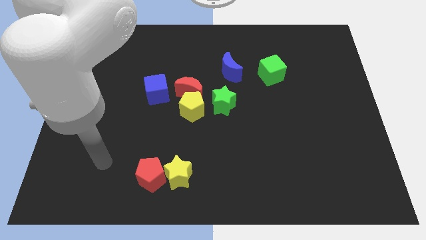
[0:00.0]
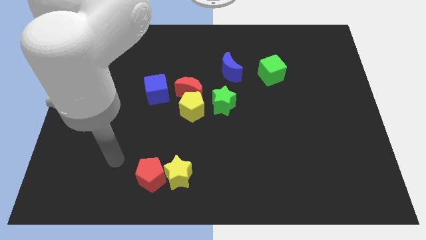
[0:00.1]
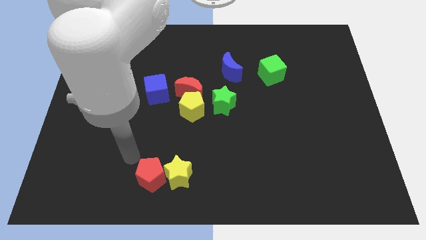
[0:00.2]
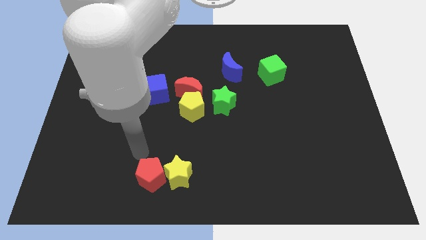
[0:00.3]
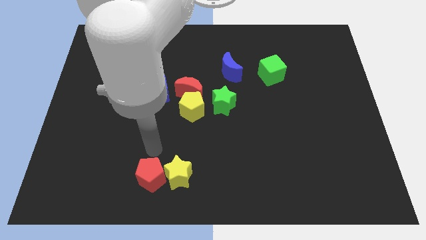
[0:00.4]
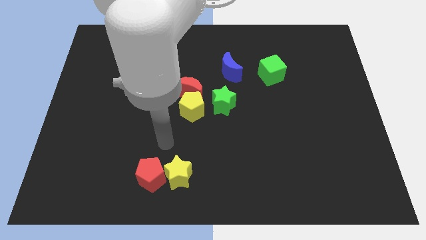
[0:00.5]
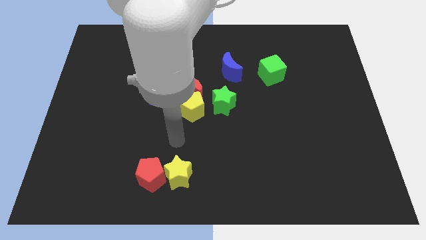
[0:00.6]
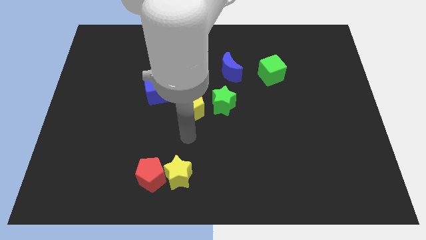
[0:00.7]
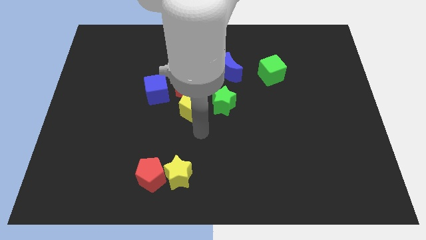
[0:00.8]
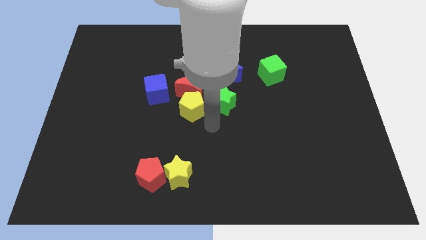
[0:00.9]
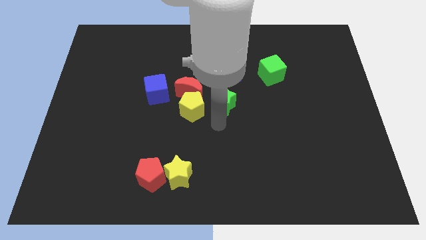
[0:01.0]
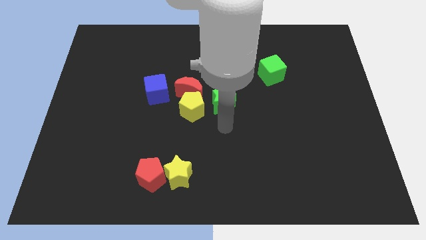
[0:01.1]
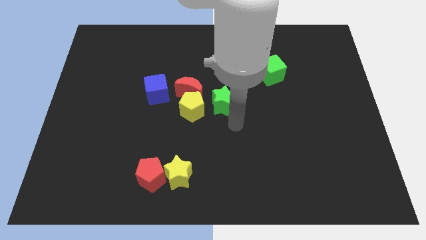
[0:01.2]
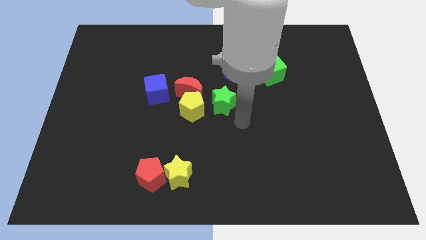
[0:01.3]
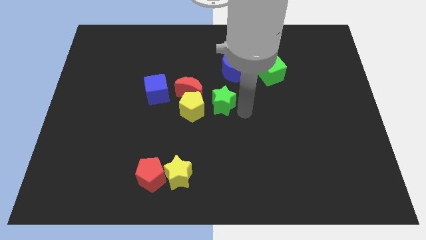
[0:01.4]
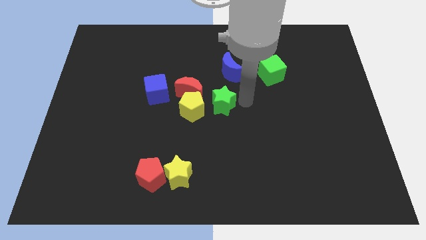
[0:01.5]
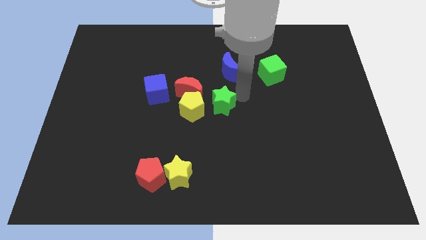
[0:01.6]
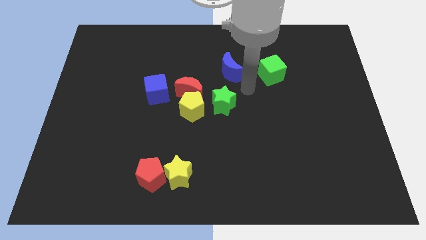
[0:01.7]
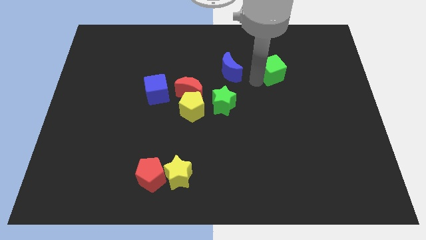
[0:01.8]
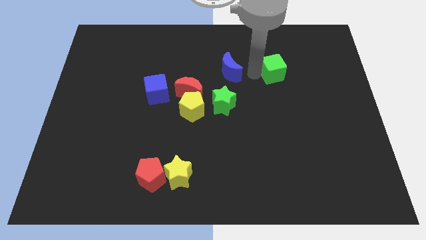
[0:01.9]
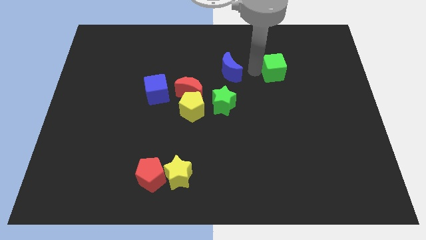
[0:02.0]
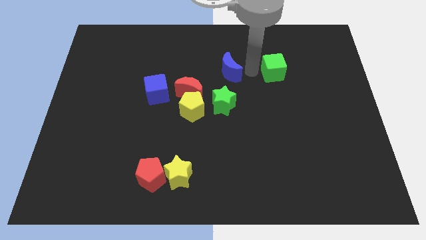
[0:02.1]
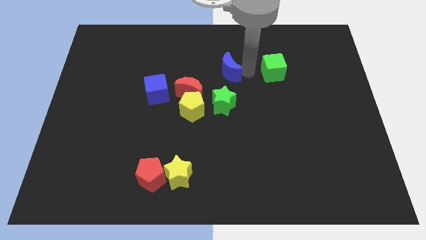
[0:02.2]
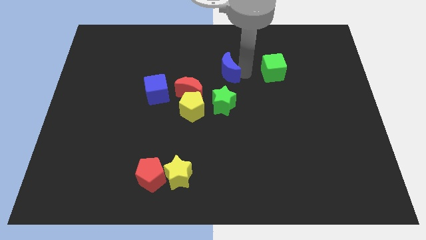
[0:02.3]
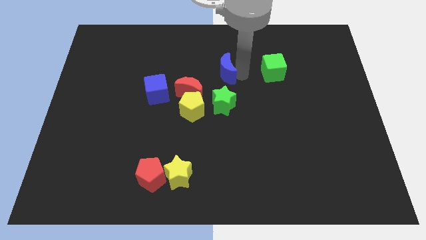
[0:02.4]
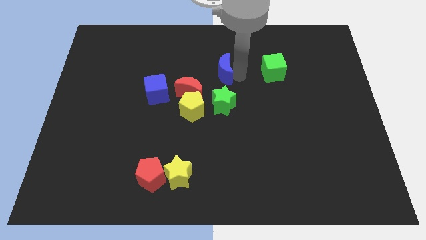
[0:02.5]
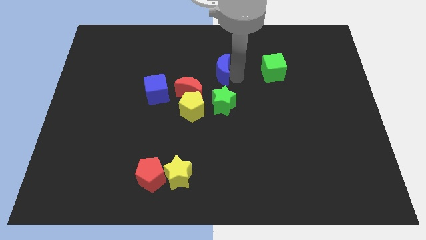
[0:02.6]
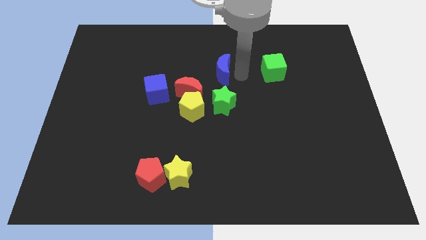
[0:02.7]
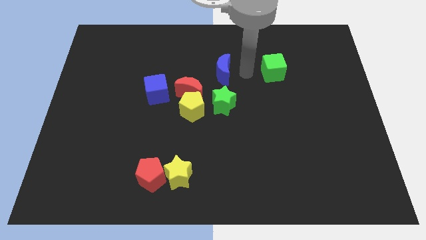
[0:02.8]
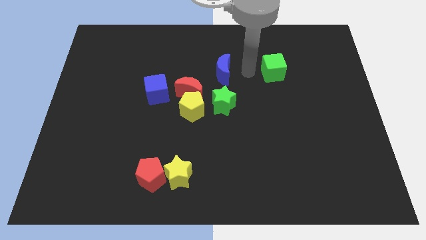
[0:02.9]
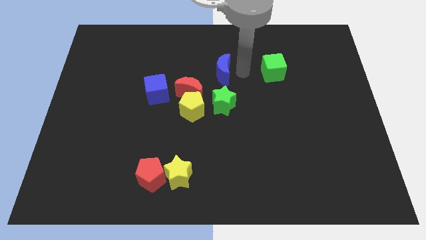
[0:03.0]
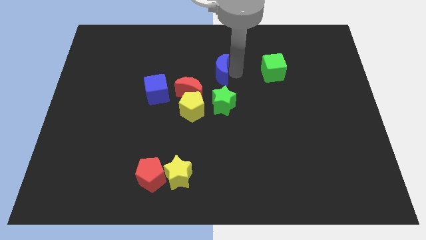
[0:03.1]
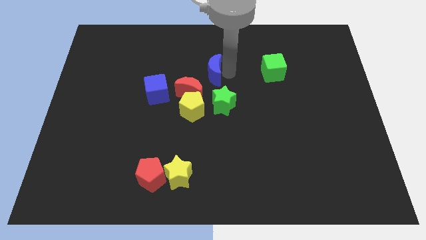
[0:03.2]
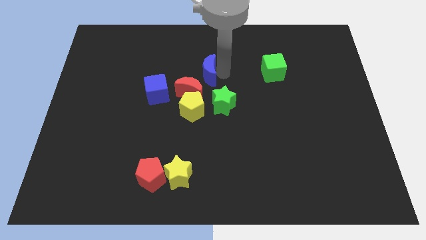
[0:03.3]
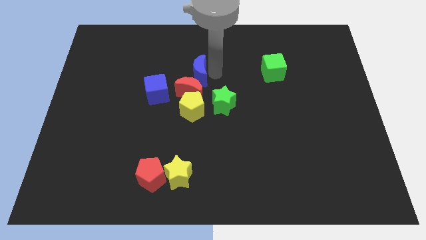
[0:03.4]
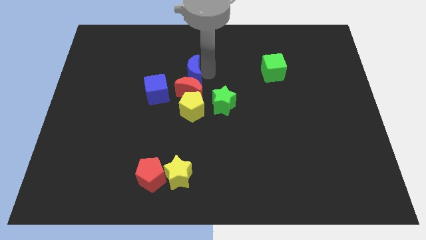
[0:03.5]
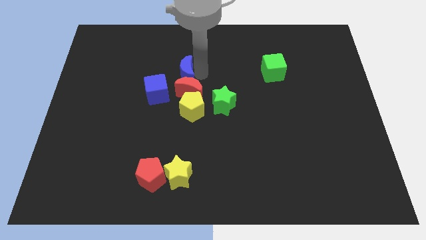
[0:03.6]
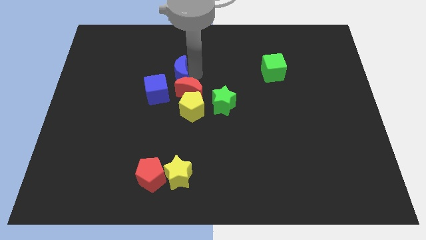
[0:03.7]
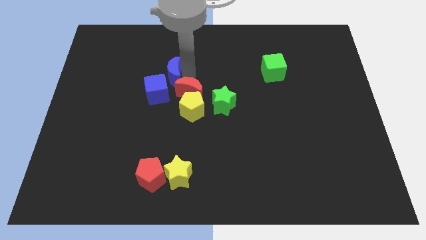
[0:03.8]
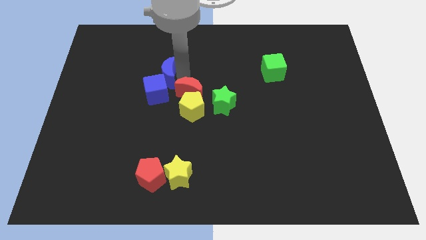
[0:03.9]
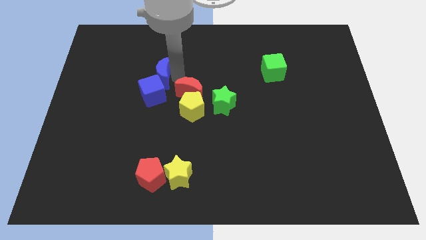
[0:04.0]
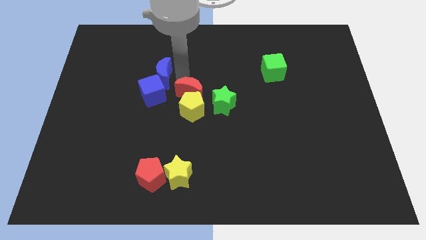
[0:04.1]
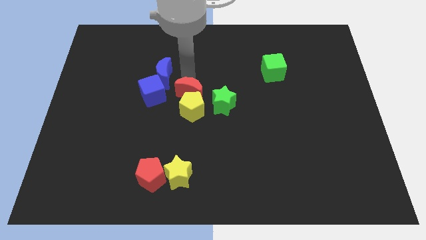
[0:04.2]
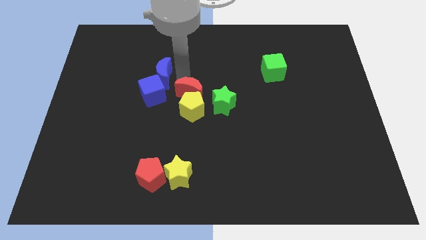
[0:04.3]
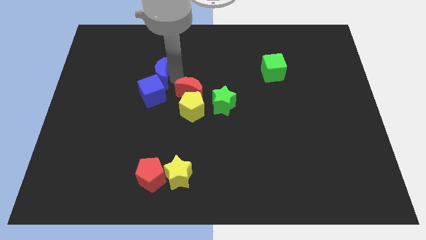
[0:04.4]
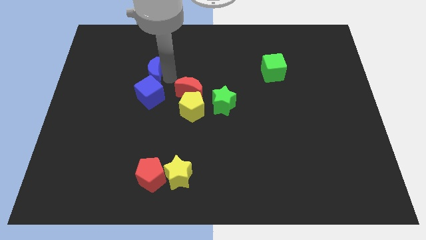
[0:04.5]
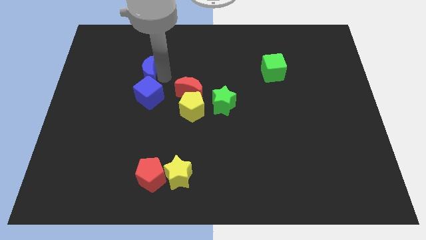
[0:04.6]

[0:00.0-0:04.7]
push the blue moon left

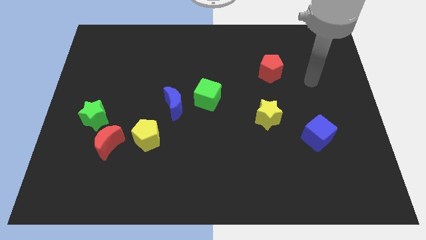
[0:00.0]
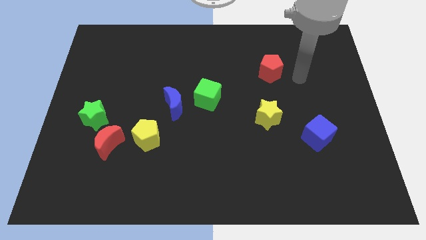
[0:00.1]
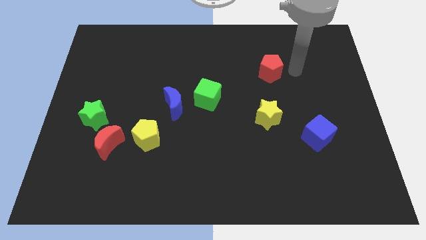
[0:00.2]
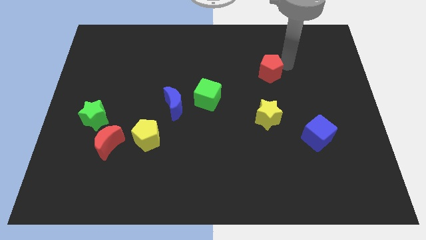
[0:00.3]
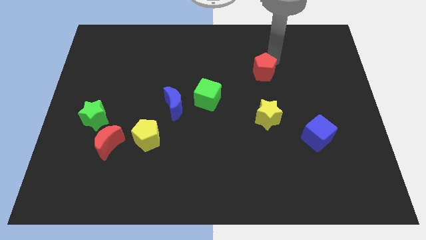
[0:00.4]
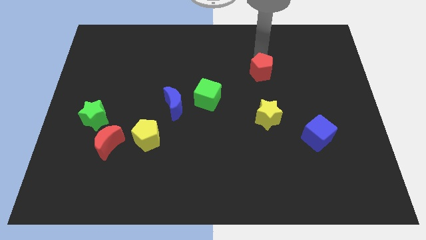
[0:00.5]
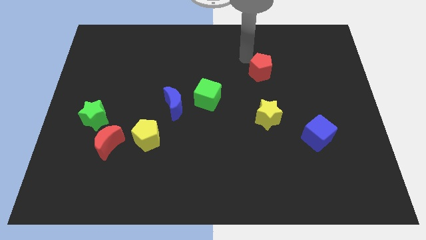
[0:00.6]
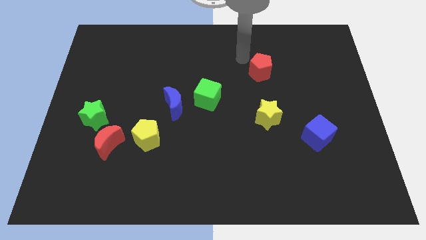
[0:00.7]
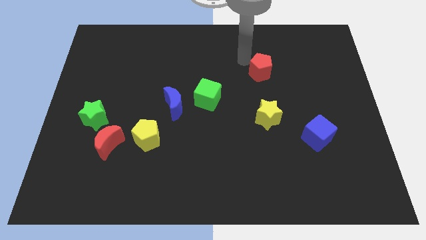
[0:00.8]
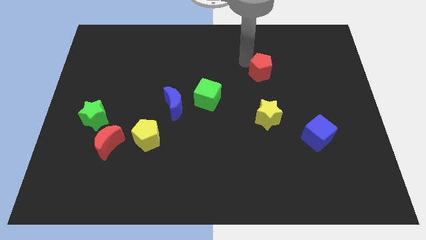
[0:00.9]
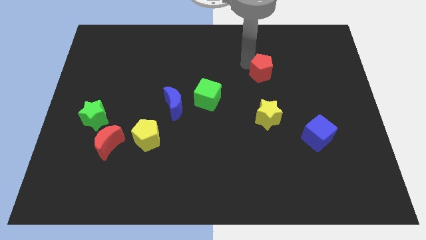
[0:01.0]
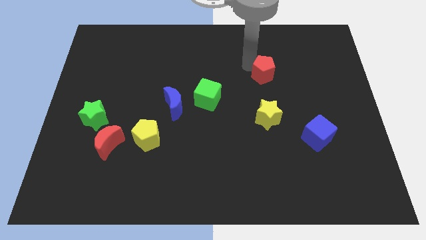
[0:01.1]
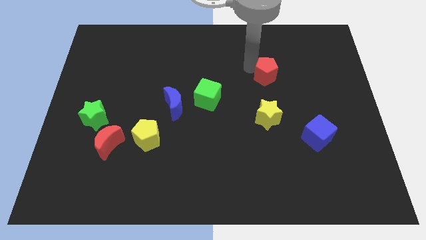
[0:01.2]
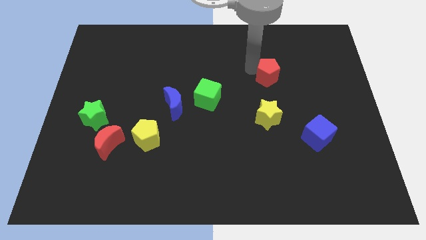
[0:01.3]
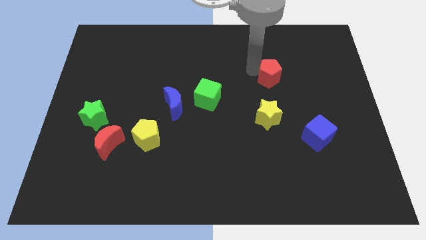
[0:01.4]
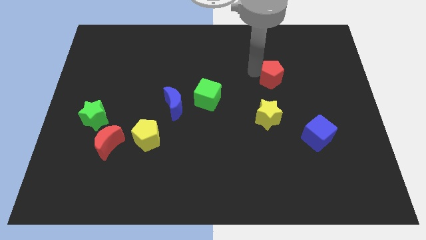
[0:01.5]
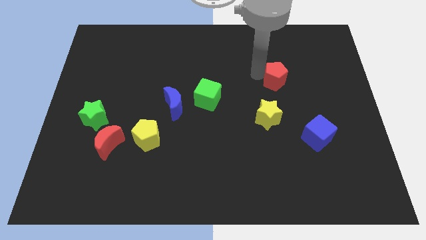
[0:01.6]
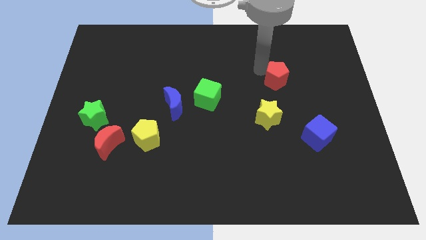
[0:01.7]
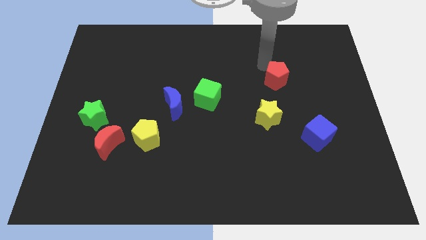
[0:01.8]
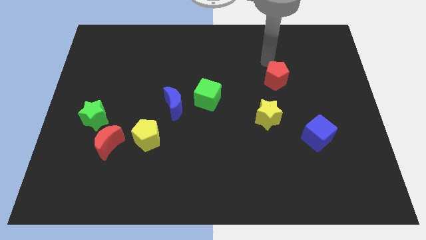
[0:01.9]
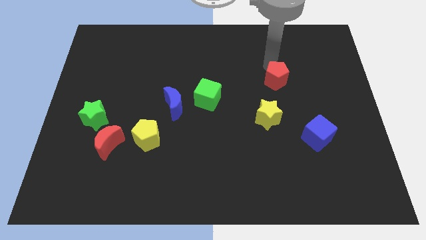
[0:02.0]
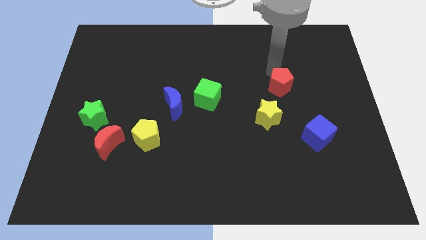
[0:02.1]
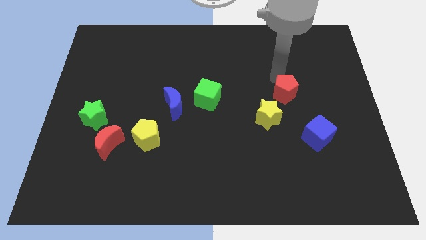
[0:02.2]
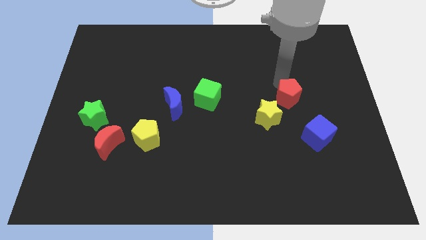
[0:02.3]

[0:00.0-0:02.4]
slightly move the red pentagon downwards

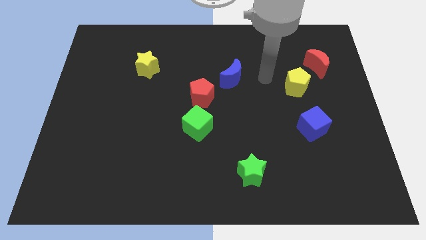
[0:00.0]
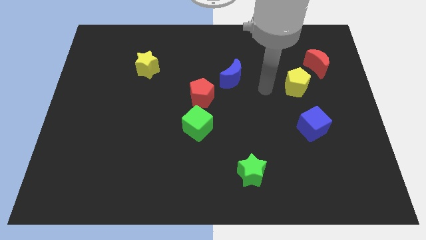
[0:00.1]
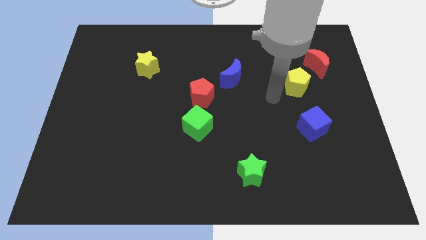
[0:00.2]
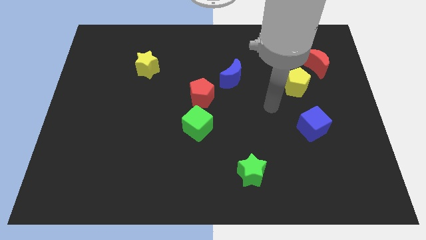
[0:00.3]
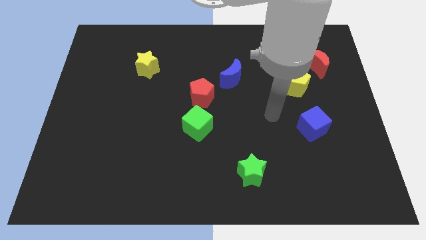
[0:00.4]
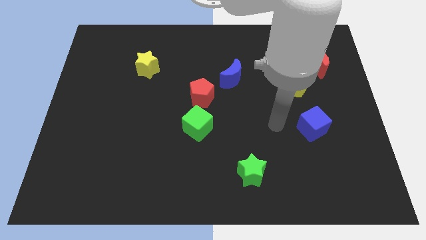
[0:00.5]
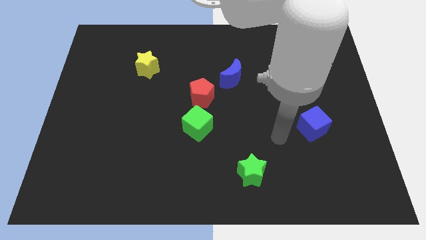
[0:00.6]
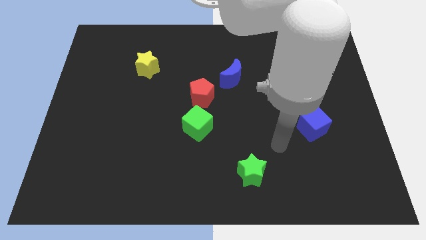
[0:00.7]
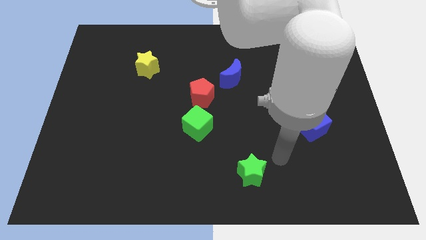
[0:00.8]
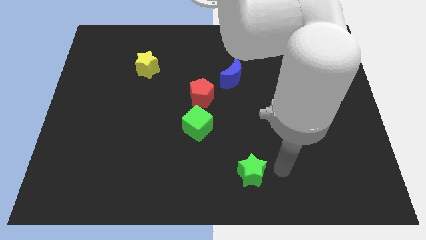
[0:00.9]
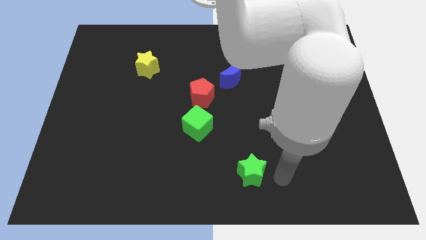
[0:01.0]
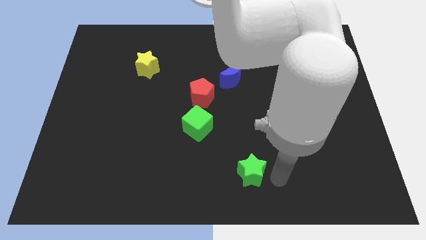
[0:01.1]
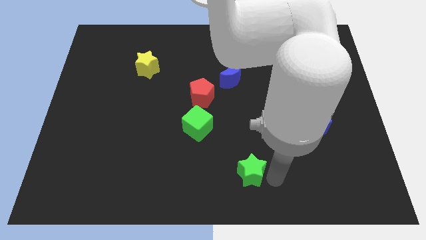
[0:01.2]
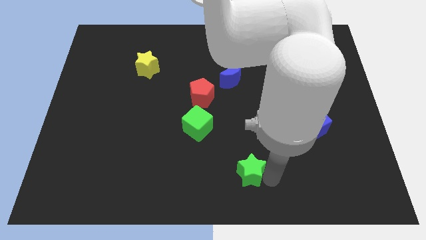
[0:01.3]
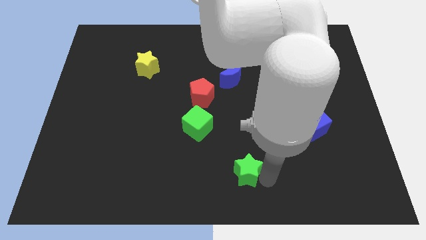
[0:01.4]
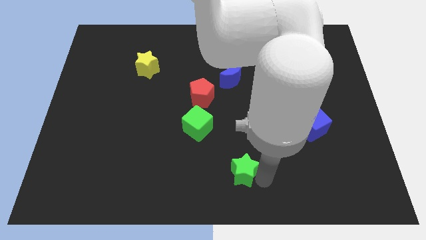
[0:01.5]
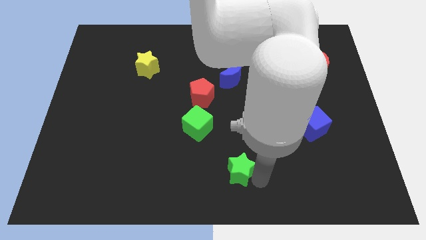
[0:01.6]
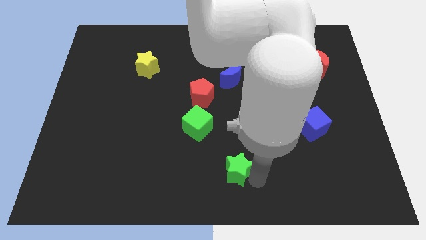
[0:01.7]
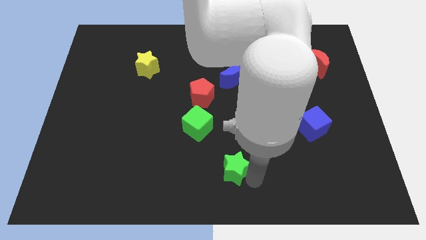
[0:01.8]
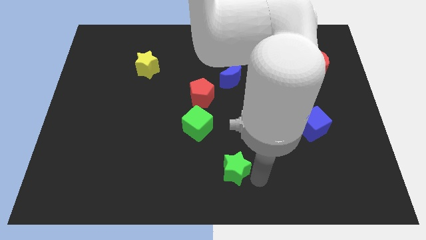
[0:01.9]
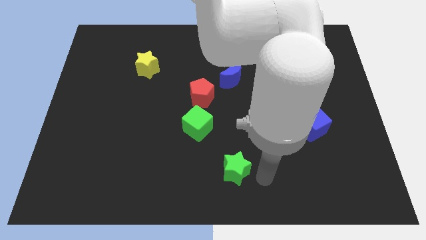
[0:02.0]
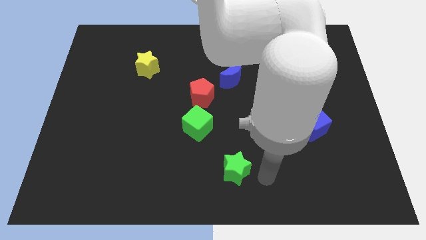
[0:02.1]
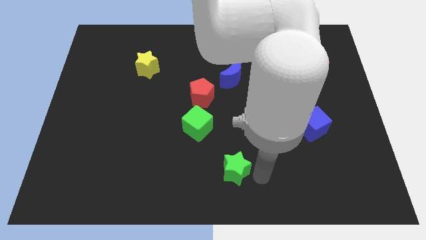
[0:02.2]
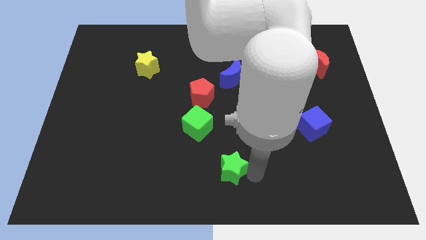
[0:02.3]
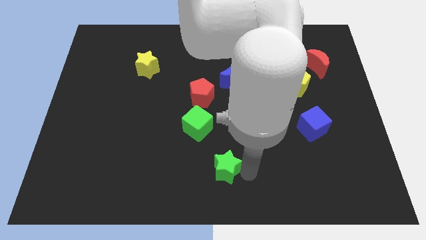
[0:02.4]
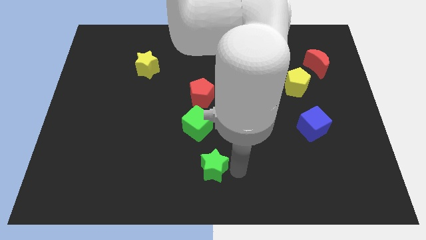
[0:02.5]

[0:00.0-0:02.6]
slightly move the green star left
